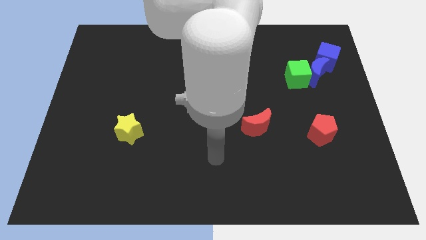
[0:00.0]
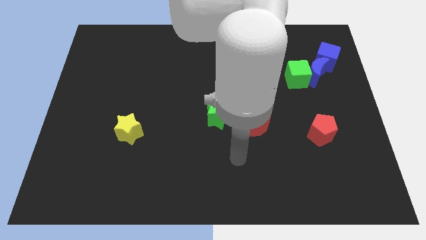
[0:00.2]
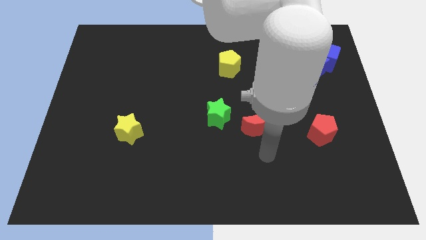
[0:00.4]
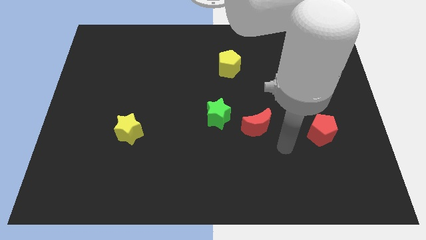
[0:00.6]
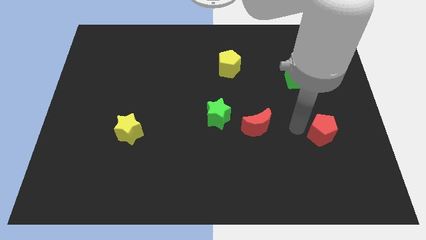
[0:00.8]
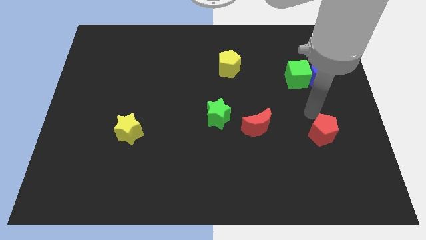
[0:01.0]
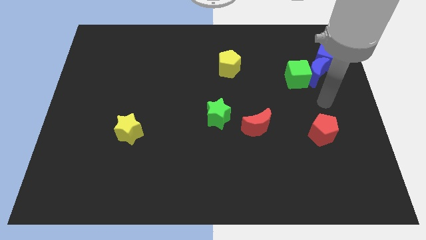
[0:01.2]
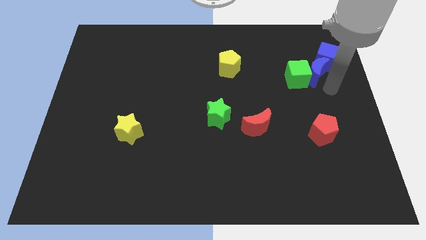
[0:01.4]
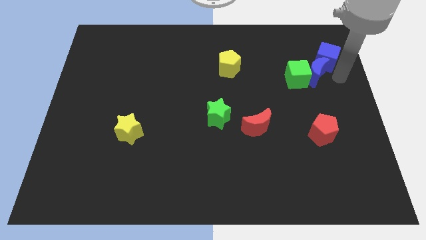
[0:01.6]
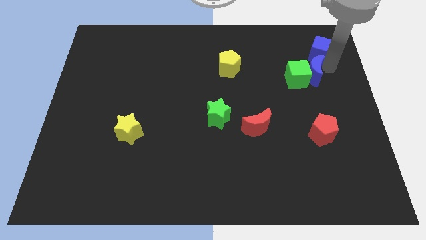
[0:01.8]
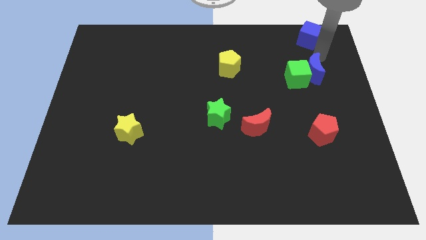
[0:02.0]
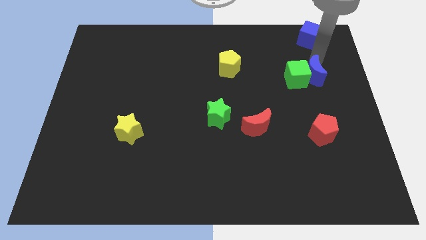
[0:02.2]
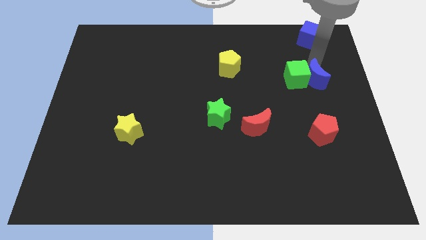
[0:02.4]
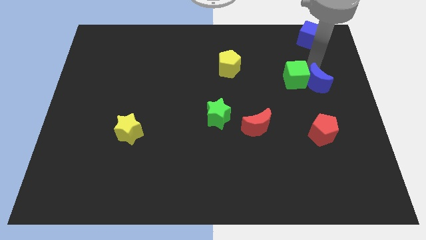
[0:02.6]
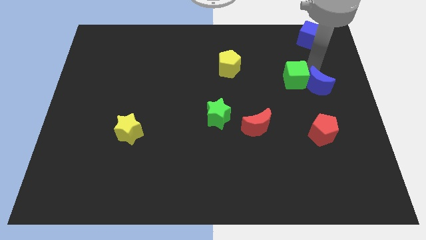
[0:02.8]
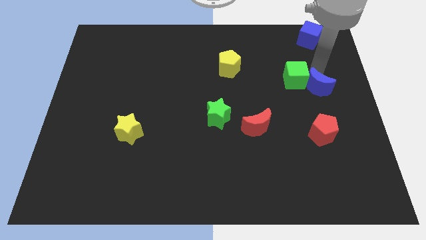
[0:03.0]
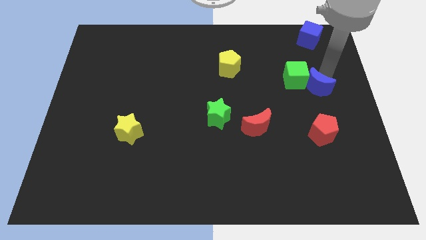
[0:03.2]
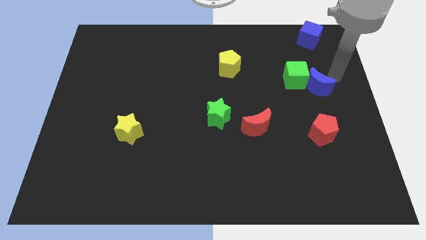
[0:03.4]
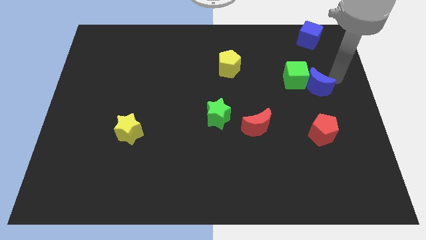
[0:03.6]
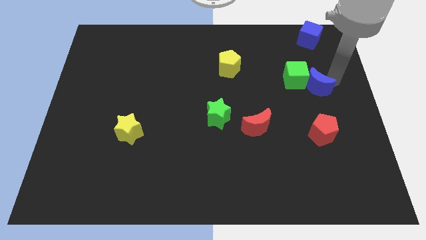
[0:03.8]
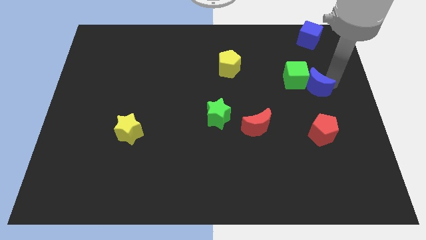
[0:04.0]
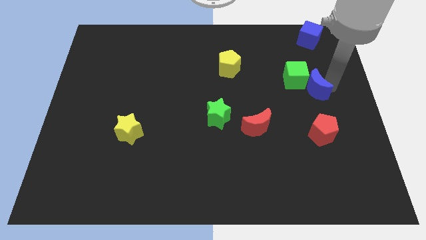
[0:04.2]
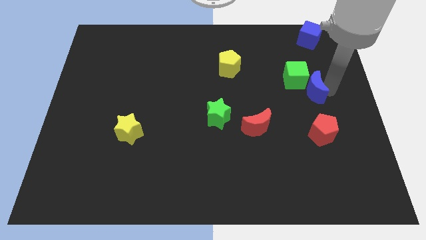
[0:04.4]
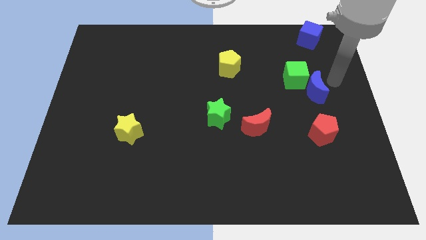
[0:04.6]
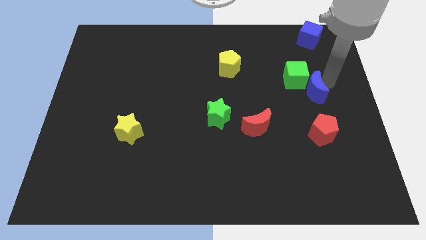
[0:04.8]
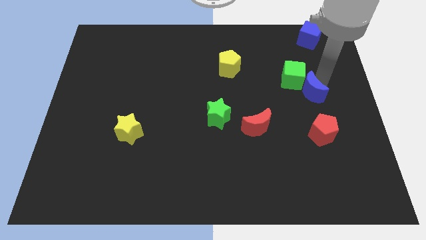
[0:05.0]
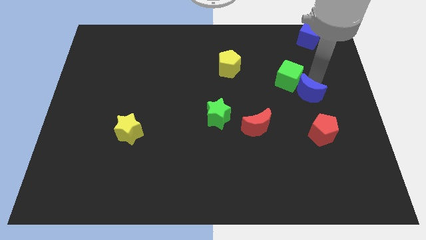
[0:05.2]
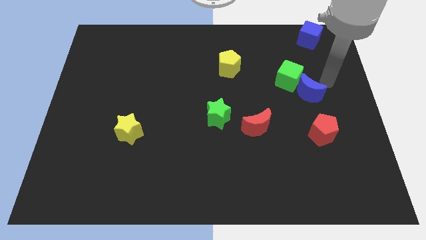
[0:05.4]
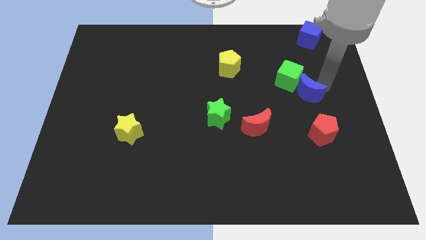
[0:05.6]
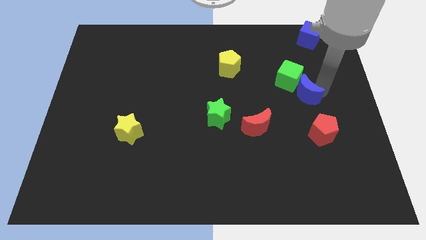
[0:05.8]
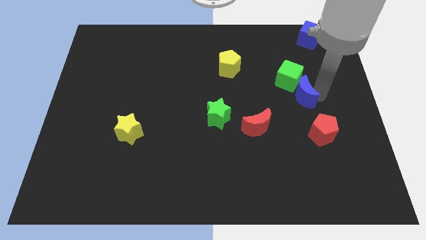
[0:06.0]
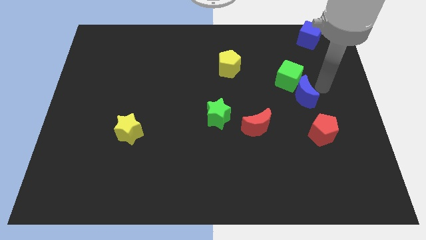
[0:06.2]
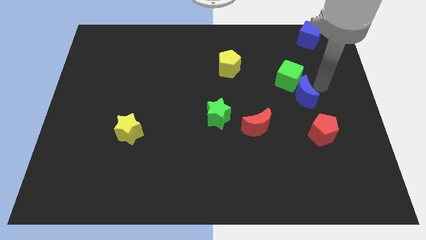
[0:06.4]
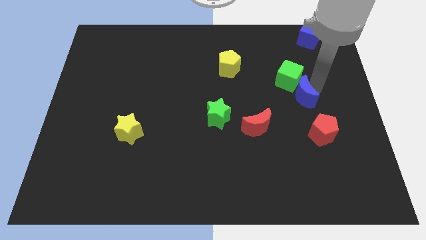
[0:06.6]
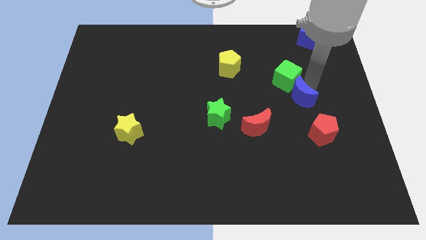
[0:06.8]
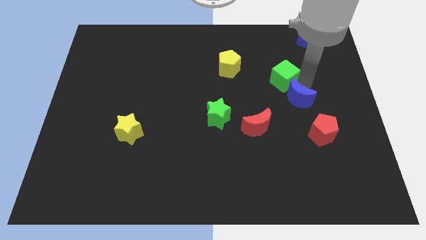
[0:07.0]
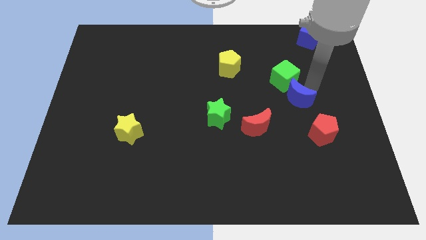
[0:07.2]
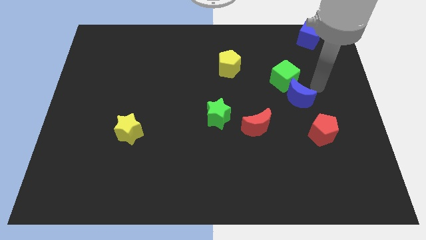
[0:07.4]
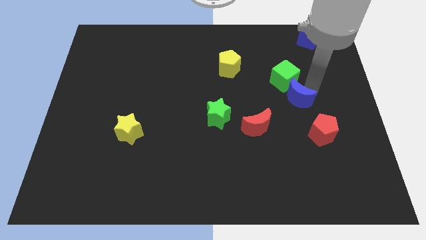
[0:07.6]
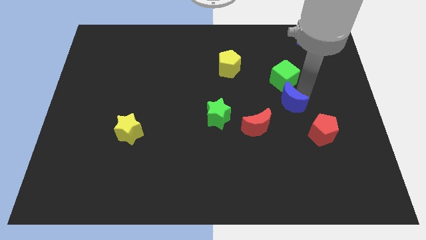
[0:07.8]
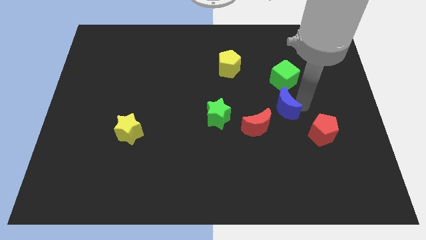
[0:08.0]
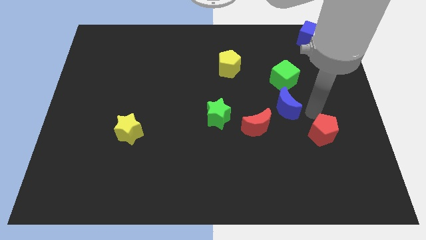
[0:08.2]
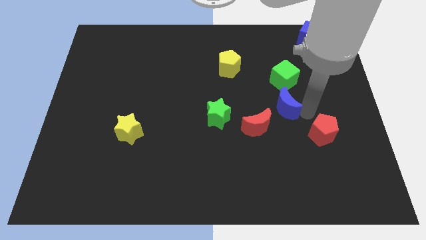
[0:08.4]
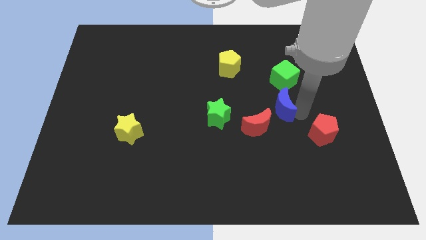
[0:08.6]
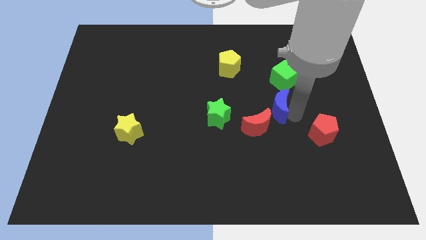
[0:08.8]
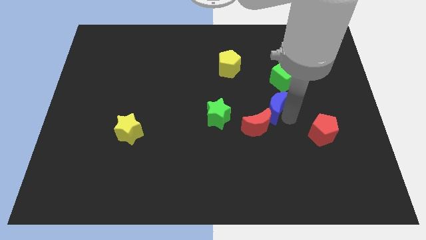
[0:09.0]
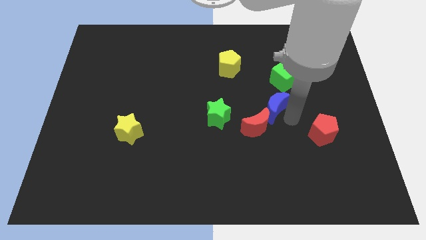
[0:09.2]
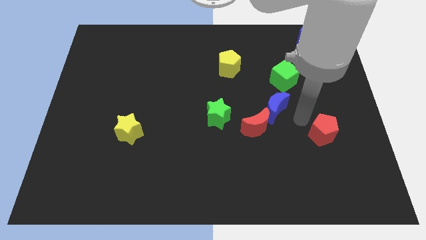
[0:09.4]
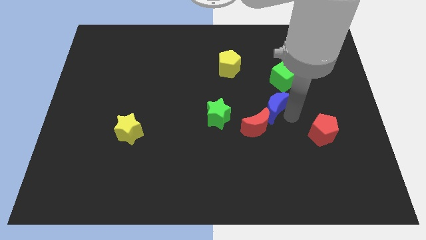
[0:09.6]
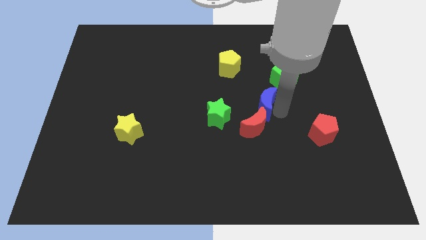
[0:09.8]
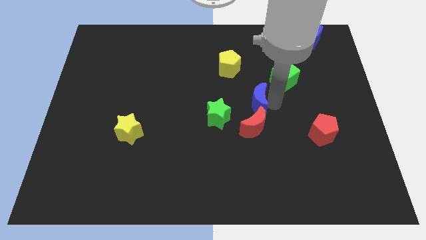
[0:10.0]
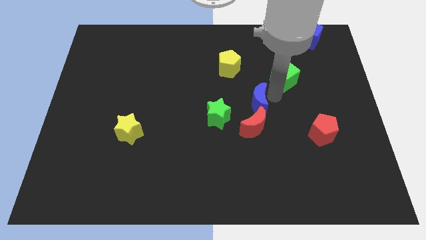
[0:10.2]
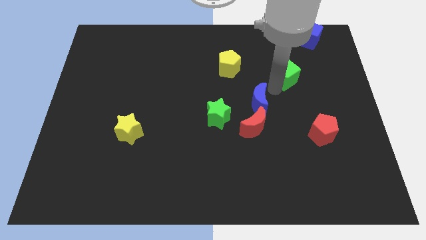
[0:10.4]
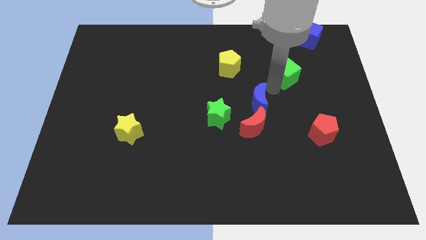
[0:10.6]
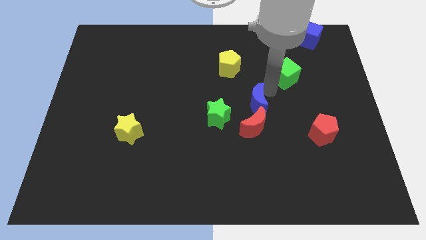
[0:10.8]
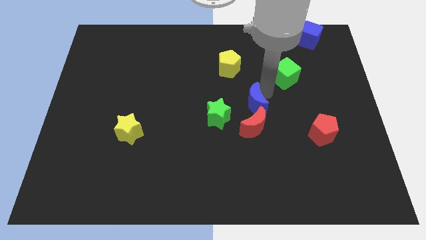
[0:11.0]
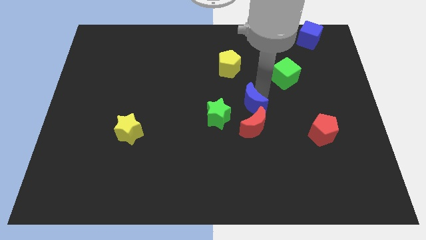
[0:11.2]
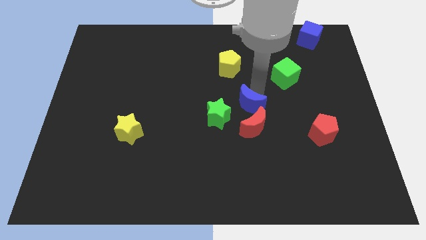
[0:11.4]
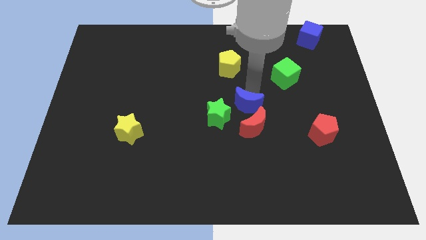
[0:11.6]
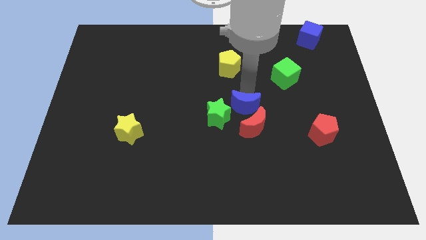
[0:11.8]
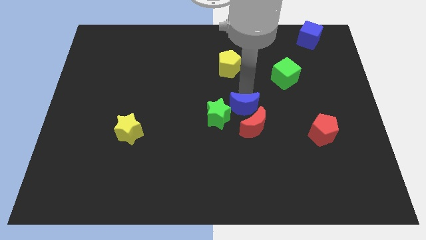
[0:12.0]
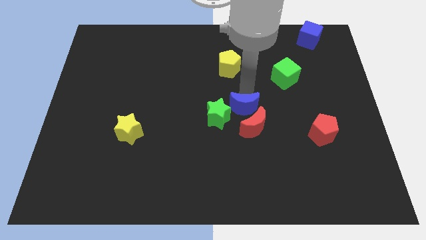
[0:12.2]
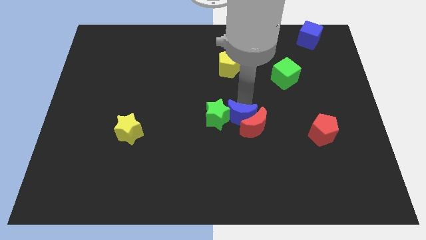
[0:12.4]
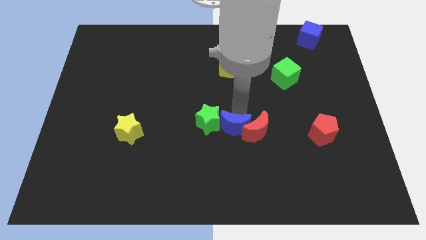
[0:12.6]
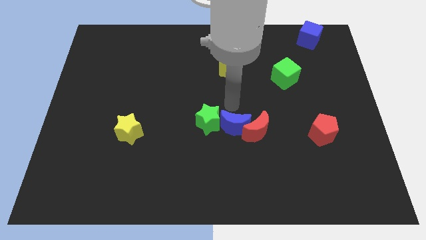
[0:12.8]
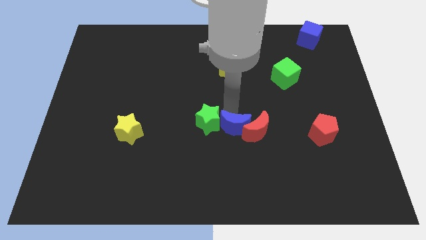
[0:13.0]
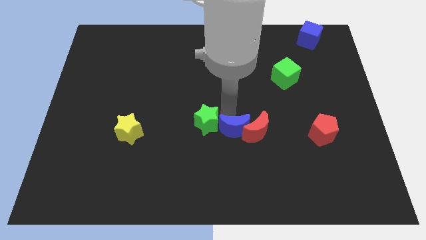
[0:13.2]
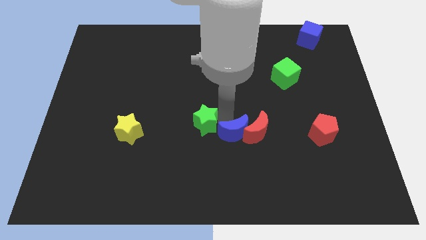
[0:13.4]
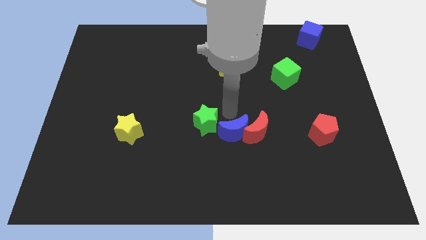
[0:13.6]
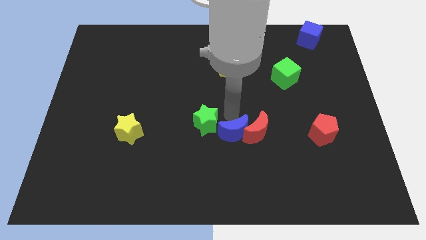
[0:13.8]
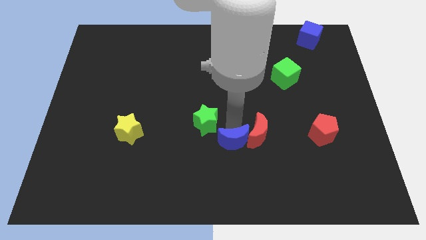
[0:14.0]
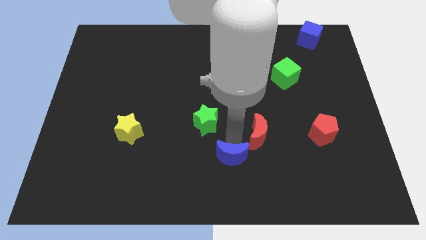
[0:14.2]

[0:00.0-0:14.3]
slide the blue moon to the bottom
